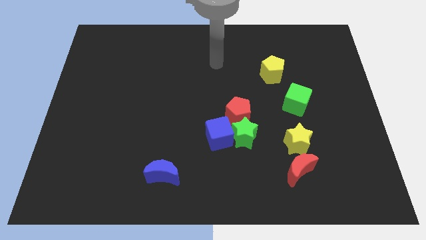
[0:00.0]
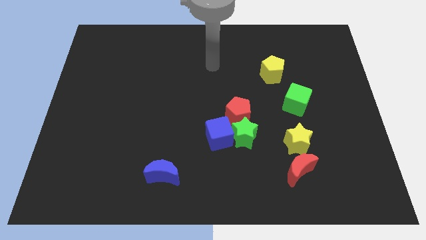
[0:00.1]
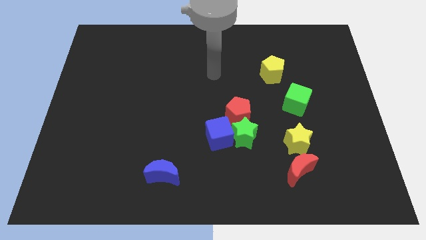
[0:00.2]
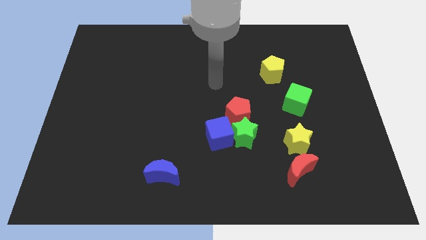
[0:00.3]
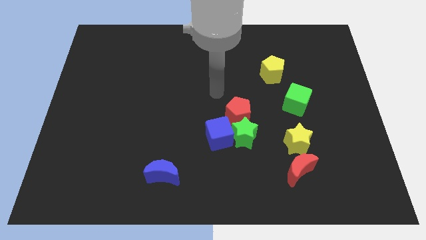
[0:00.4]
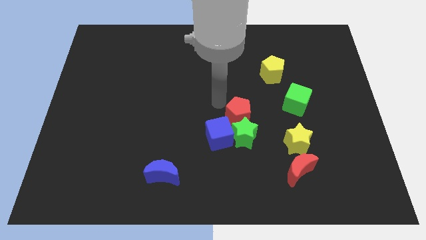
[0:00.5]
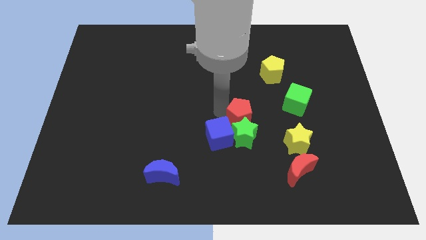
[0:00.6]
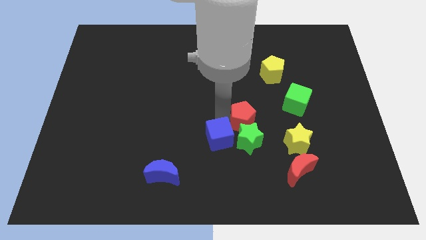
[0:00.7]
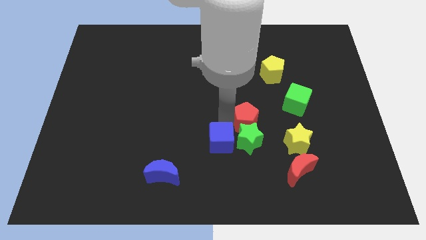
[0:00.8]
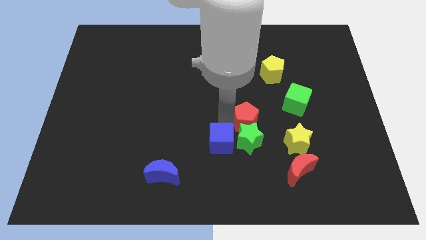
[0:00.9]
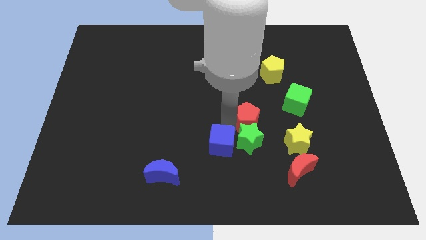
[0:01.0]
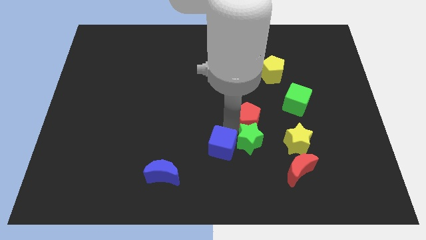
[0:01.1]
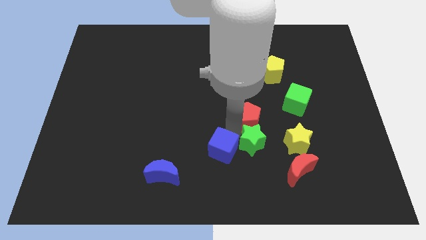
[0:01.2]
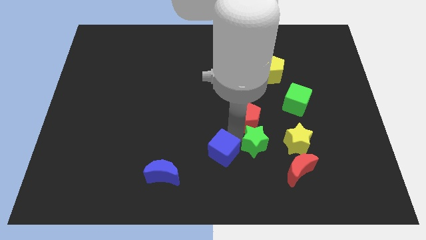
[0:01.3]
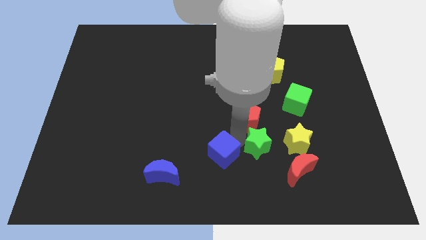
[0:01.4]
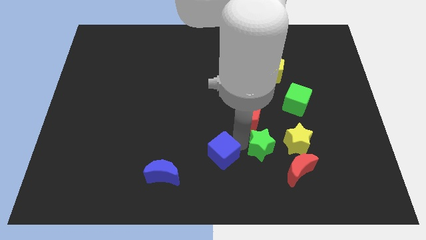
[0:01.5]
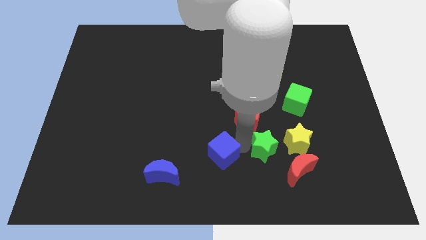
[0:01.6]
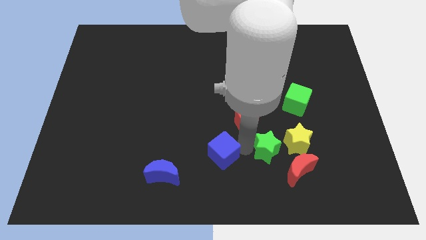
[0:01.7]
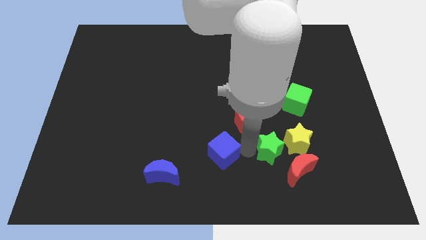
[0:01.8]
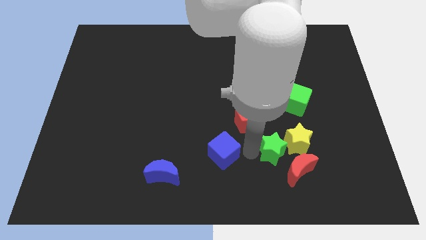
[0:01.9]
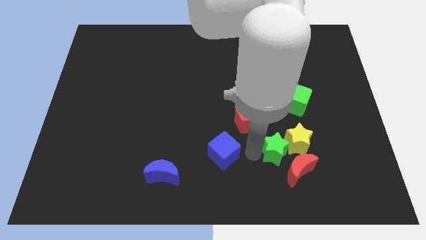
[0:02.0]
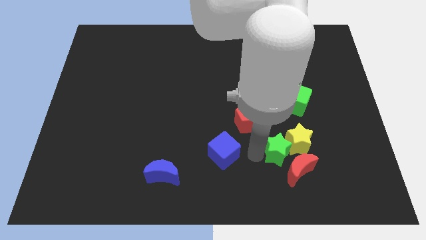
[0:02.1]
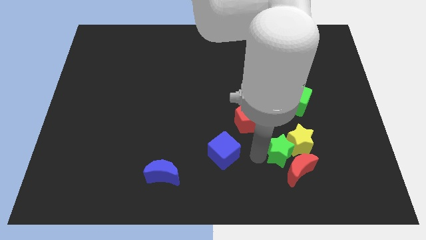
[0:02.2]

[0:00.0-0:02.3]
pull the green star apart from the blue cube and red pentagon

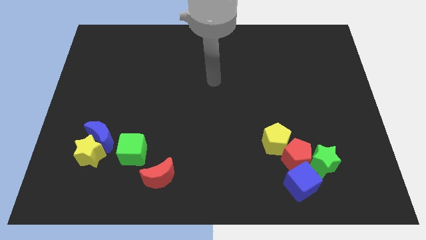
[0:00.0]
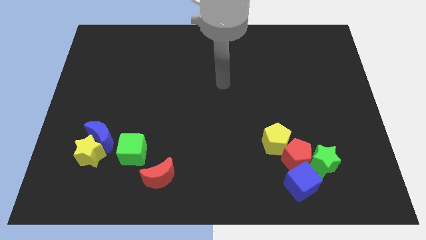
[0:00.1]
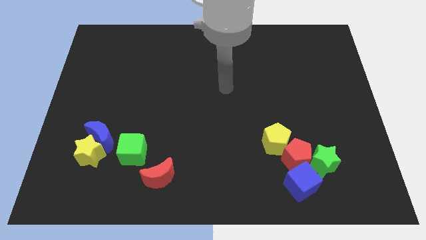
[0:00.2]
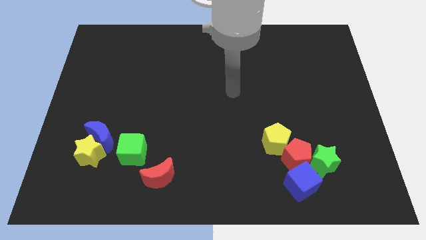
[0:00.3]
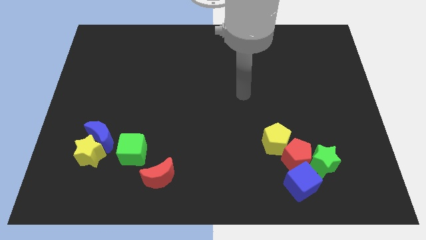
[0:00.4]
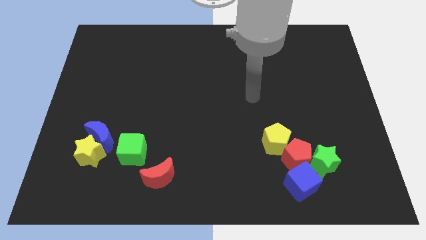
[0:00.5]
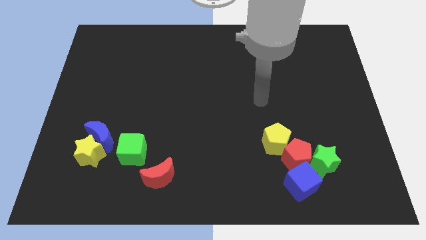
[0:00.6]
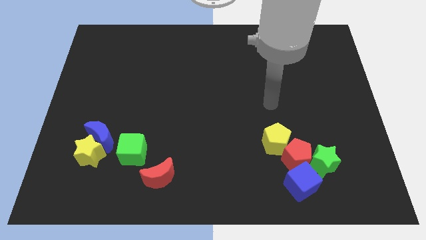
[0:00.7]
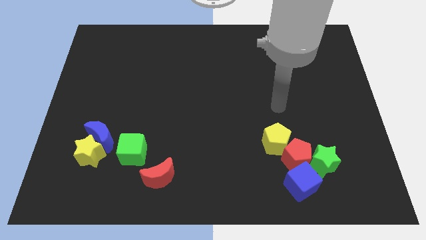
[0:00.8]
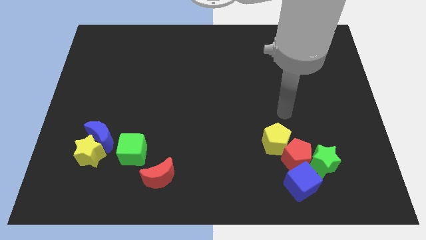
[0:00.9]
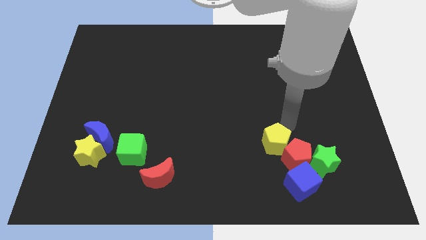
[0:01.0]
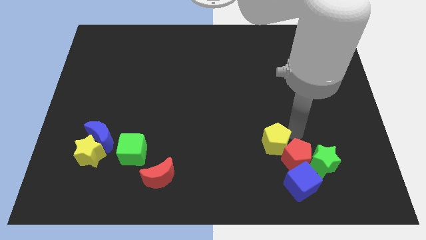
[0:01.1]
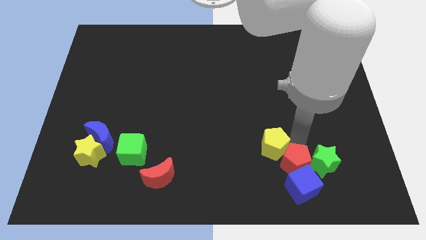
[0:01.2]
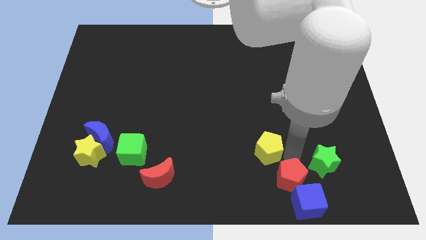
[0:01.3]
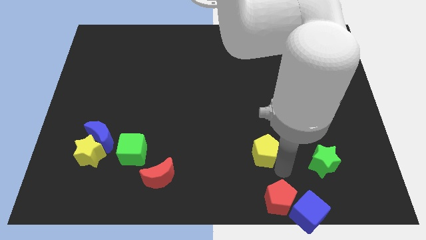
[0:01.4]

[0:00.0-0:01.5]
separate the yellow pentagon from the red pentagon

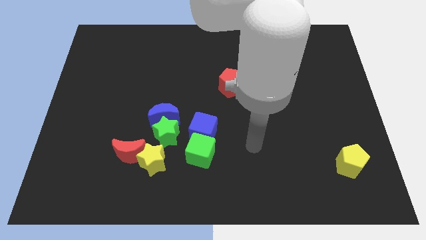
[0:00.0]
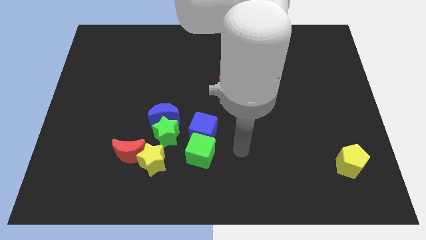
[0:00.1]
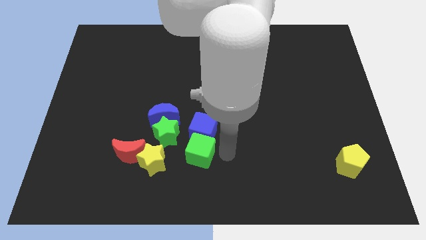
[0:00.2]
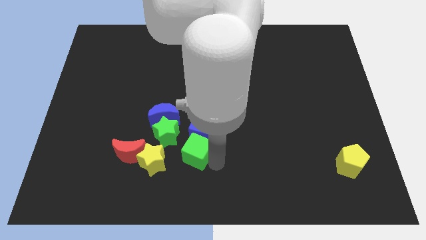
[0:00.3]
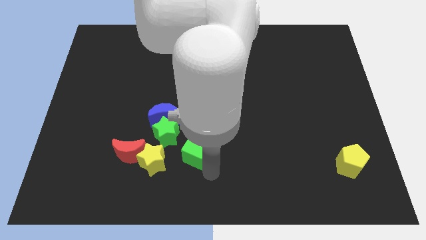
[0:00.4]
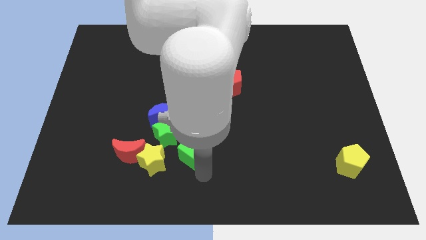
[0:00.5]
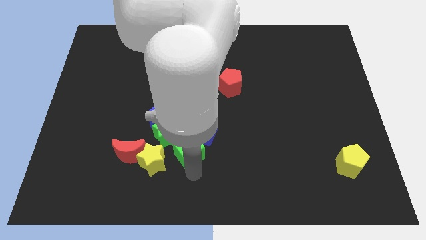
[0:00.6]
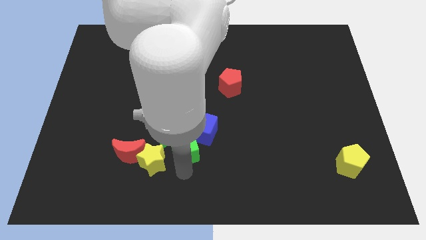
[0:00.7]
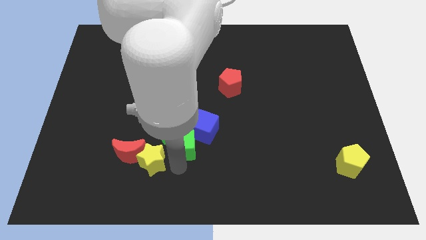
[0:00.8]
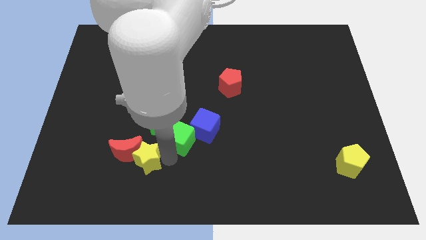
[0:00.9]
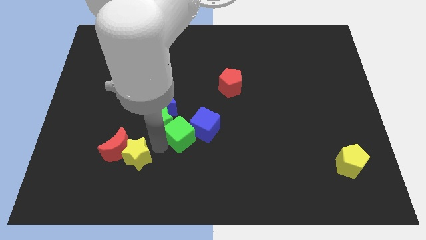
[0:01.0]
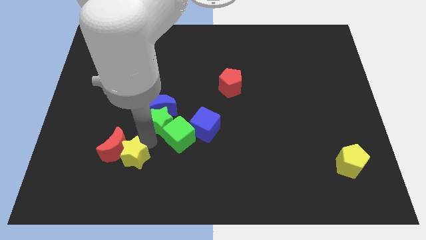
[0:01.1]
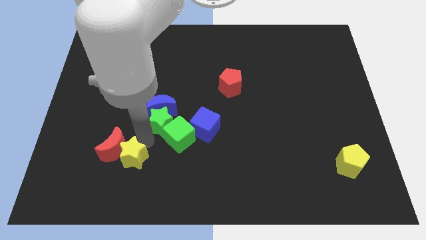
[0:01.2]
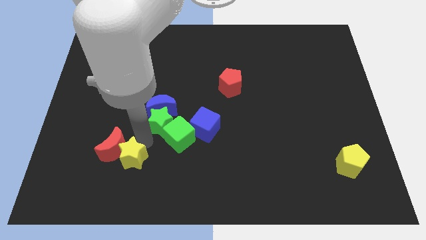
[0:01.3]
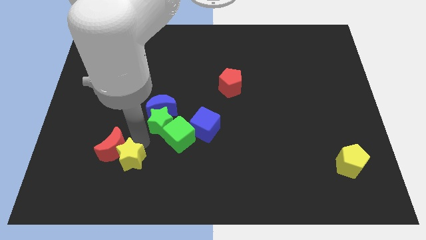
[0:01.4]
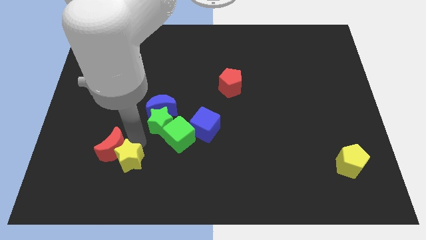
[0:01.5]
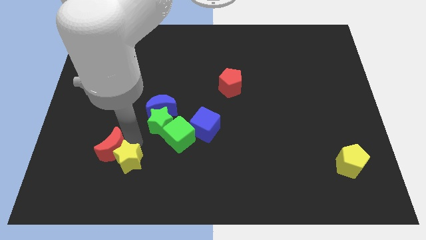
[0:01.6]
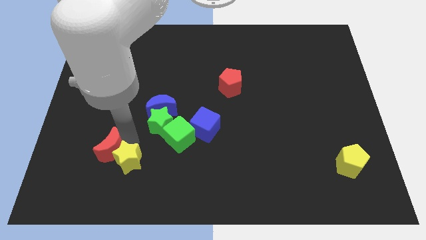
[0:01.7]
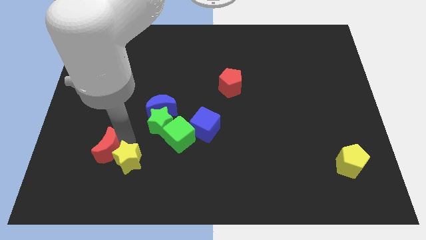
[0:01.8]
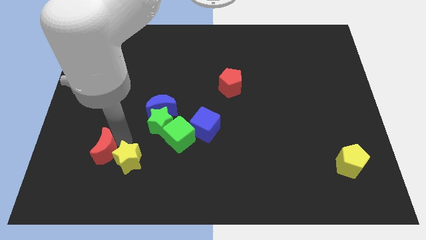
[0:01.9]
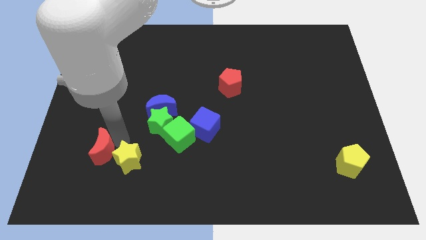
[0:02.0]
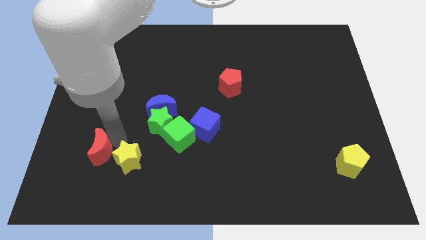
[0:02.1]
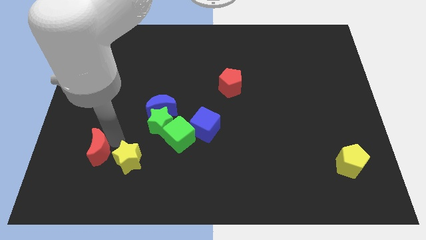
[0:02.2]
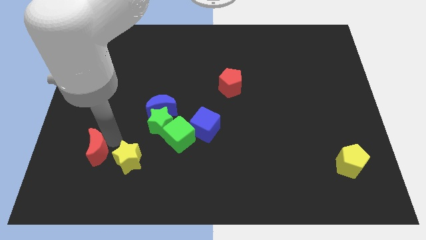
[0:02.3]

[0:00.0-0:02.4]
move the red moon away from the yellow star and green star

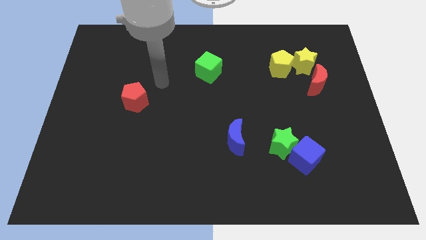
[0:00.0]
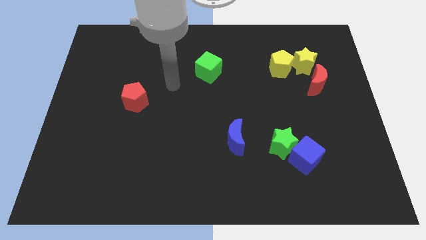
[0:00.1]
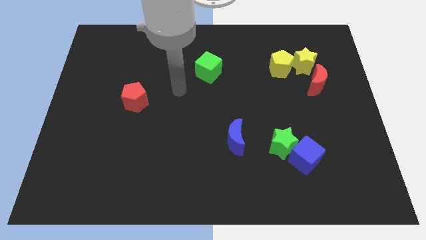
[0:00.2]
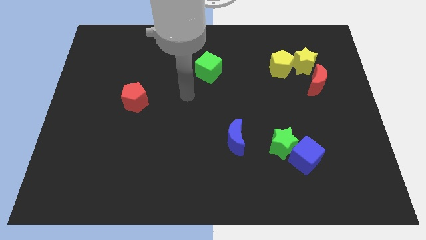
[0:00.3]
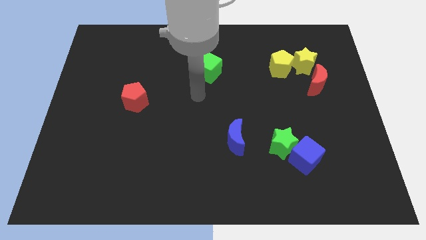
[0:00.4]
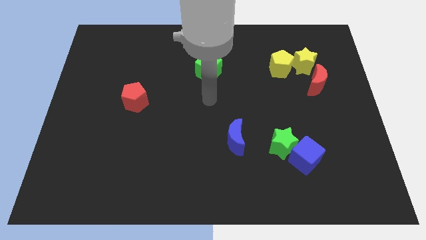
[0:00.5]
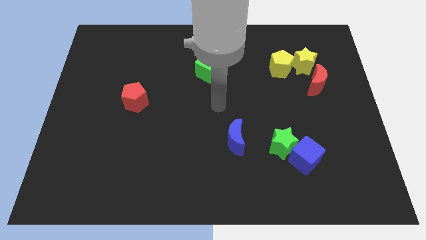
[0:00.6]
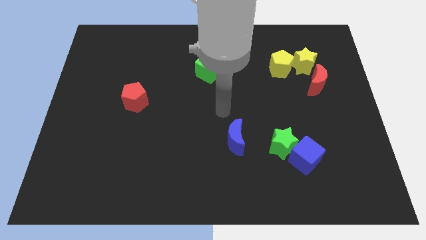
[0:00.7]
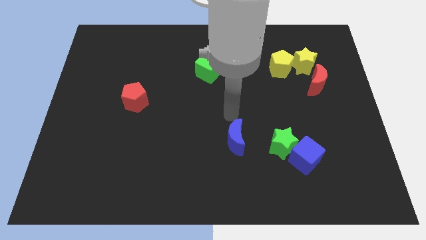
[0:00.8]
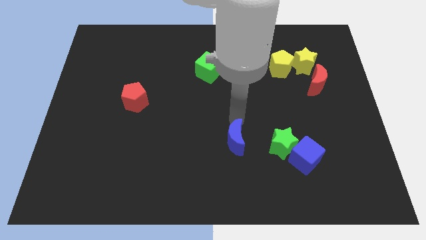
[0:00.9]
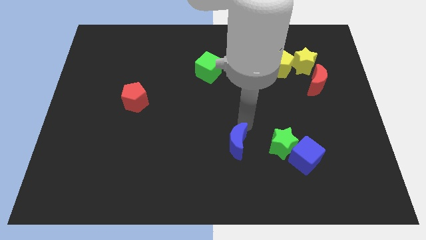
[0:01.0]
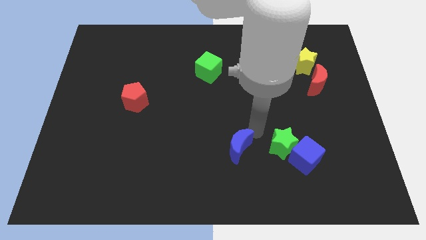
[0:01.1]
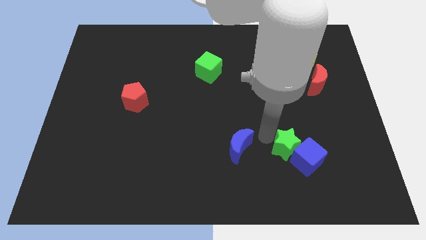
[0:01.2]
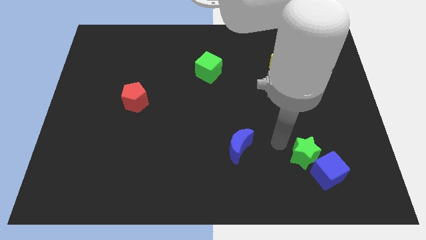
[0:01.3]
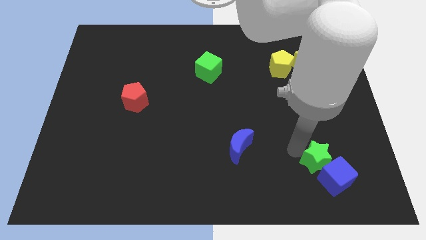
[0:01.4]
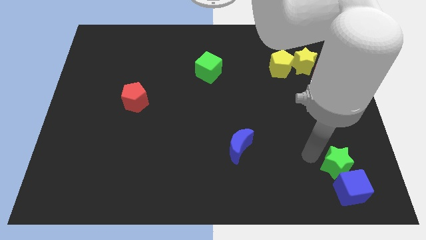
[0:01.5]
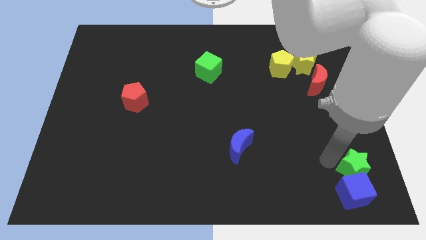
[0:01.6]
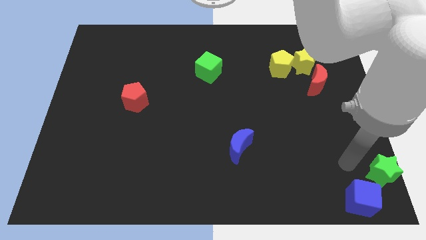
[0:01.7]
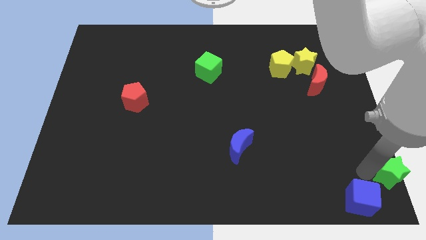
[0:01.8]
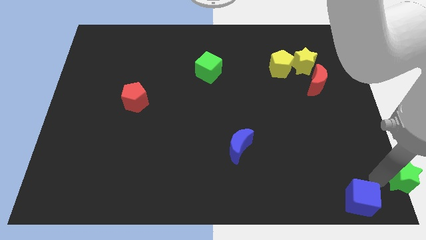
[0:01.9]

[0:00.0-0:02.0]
move the blue cube away from the green star

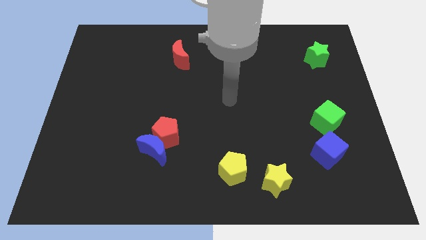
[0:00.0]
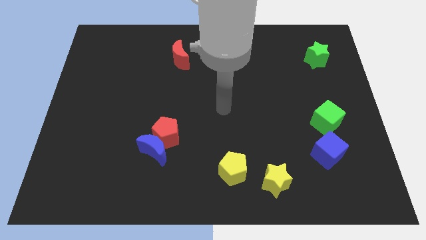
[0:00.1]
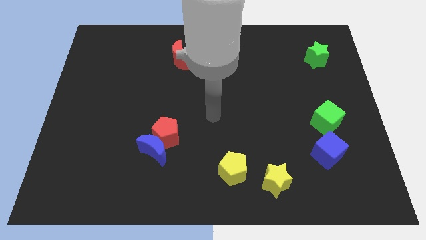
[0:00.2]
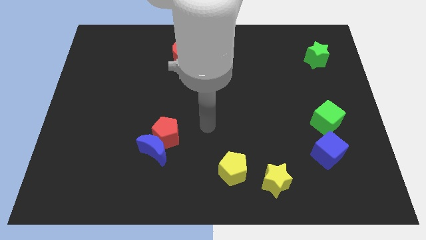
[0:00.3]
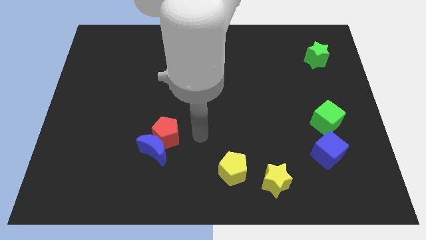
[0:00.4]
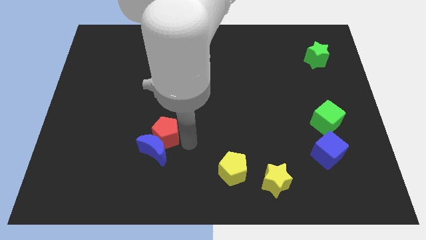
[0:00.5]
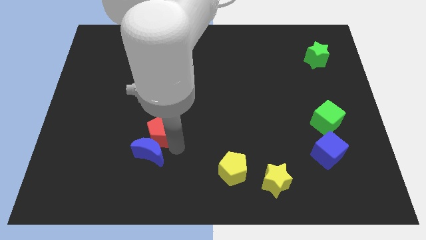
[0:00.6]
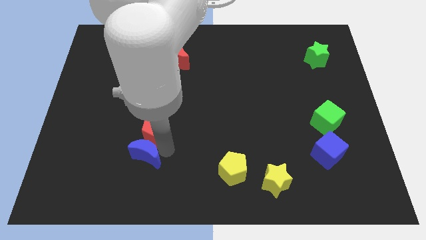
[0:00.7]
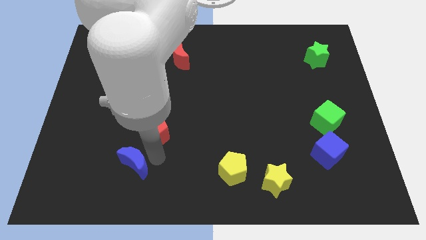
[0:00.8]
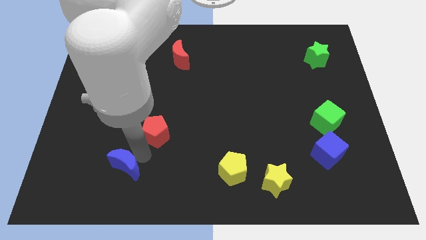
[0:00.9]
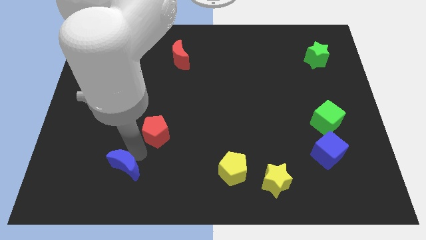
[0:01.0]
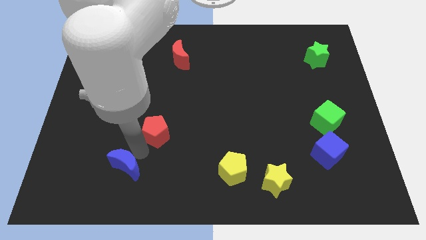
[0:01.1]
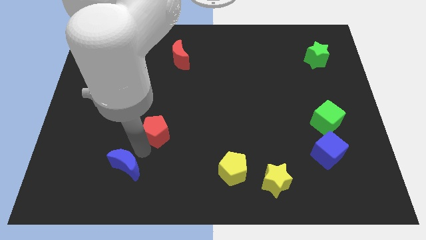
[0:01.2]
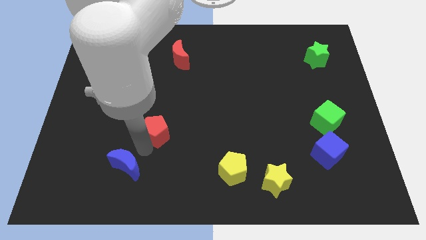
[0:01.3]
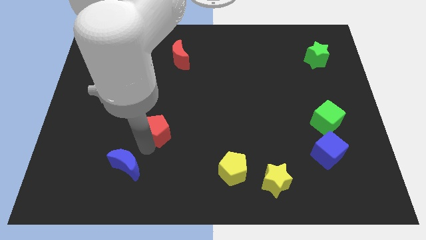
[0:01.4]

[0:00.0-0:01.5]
separate the red pentagon from the blue moon
